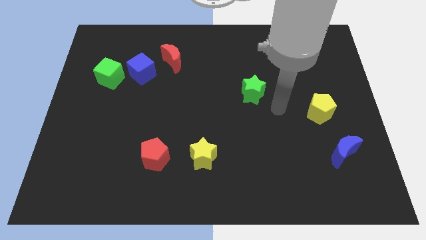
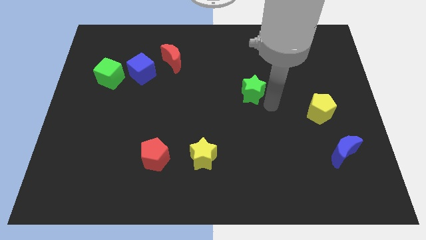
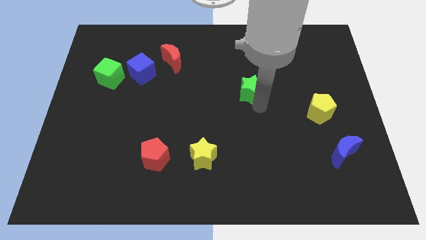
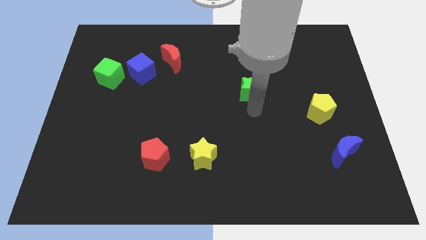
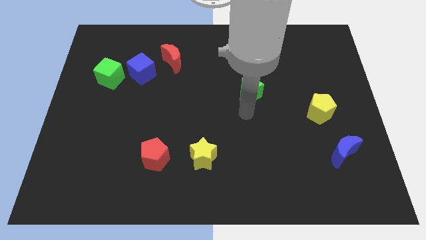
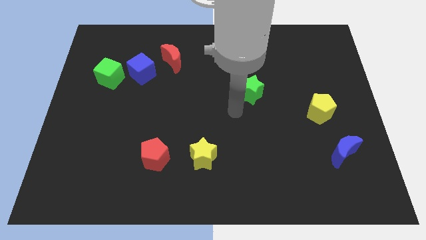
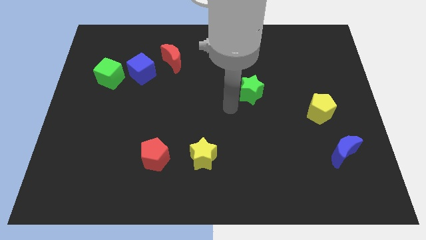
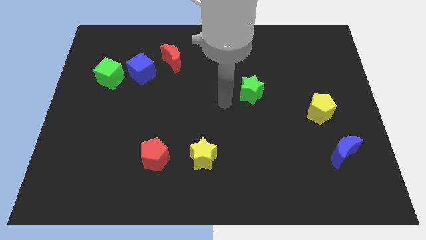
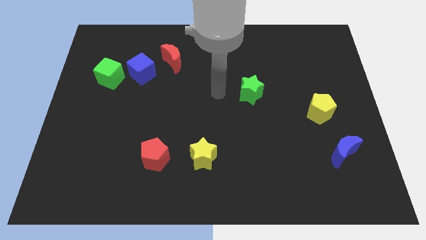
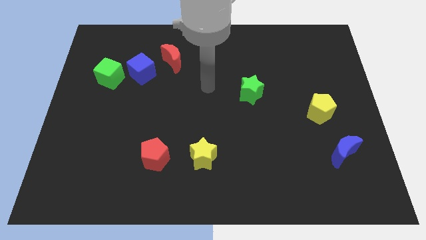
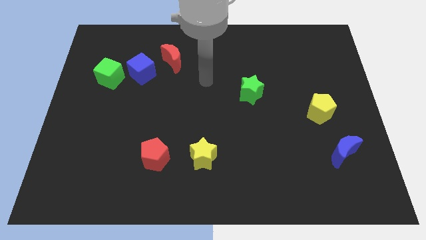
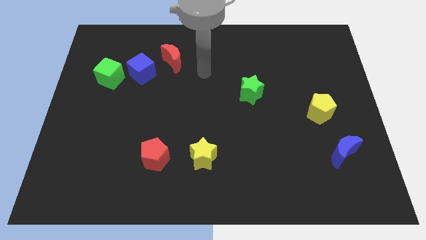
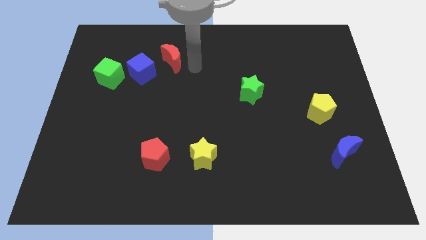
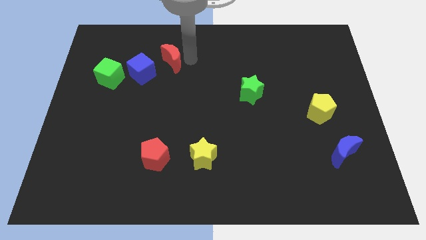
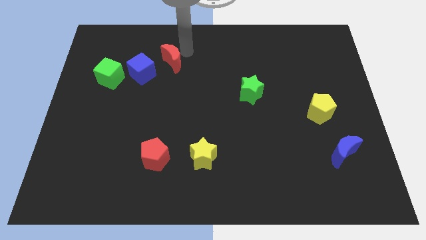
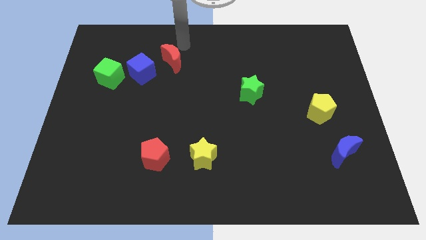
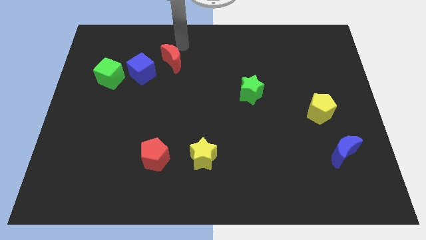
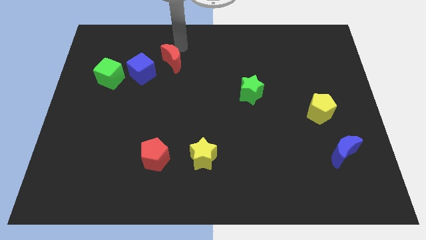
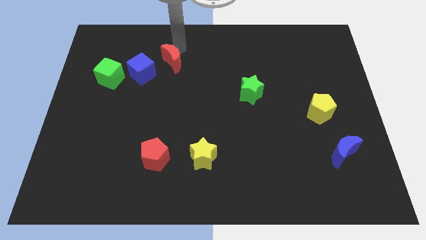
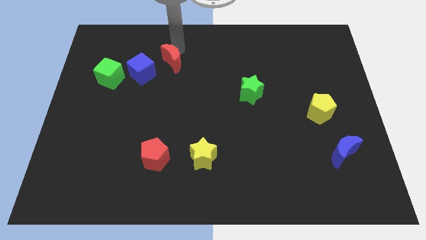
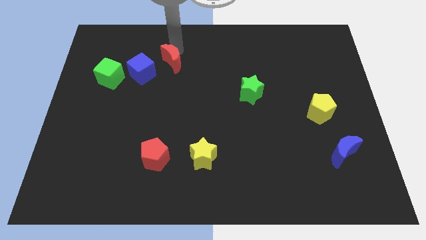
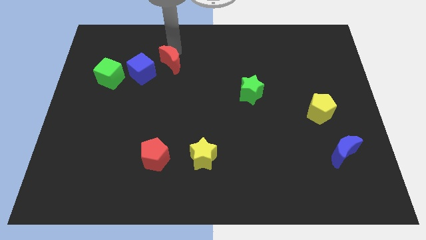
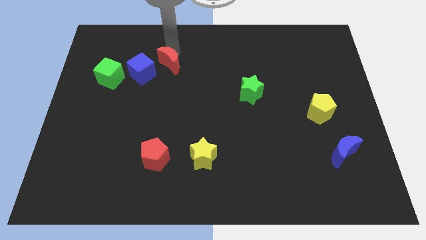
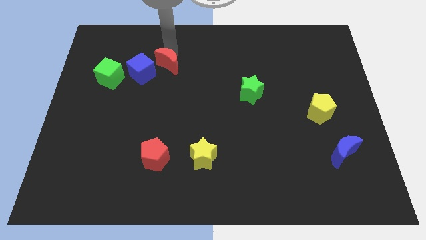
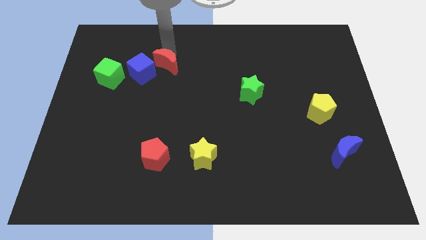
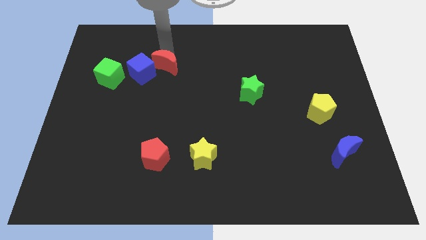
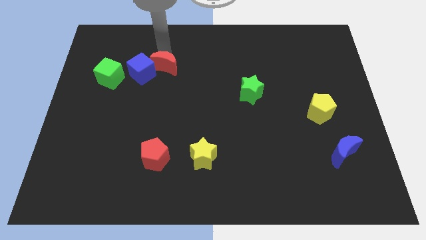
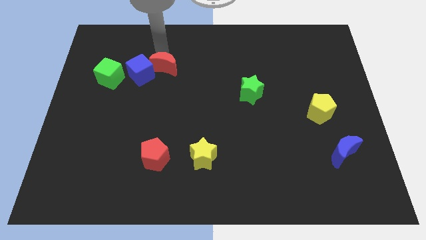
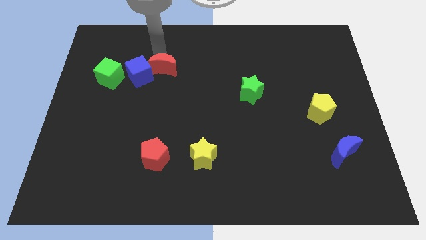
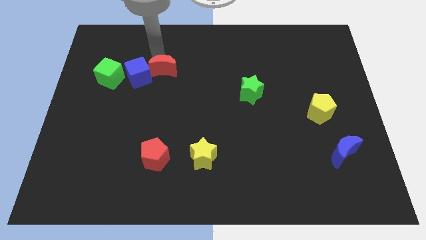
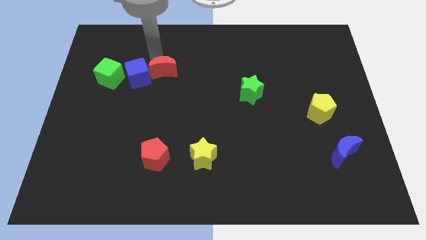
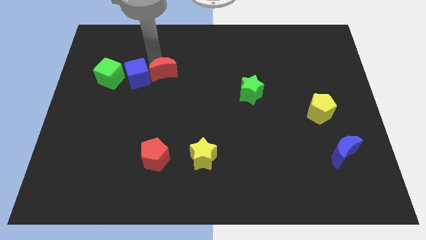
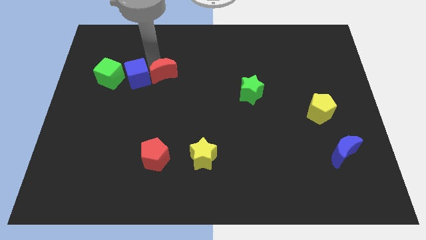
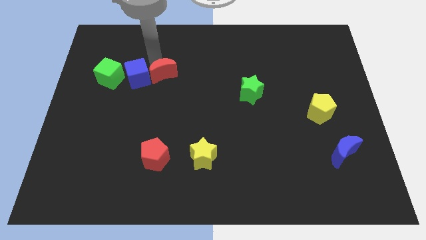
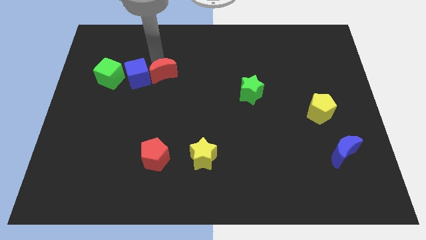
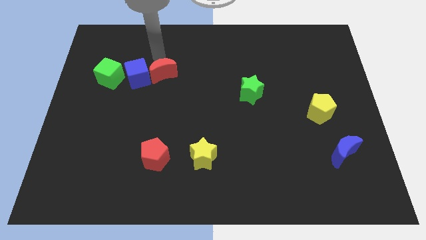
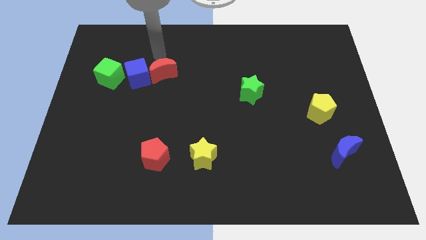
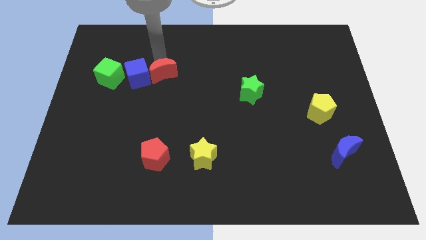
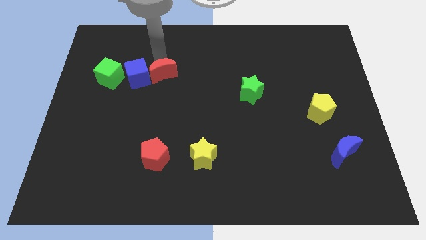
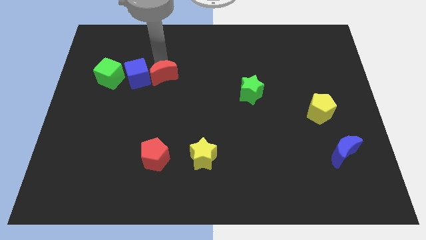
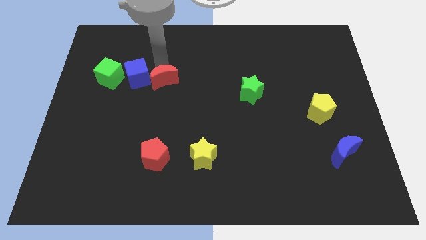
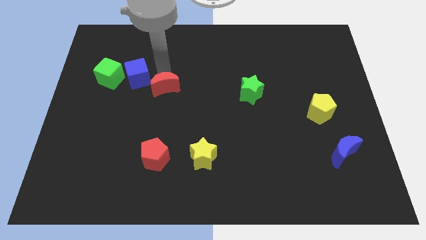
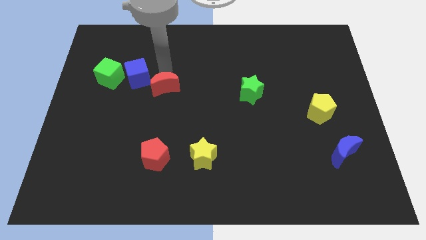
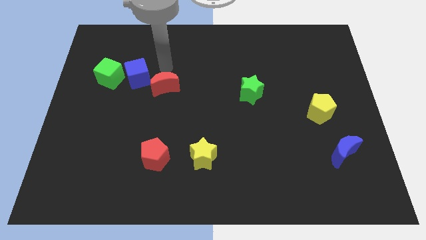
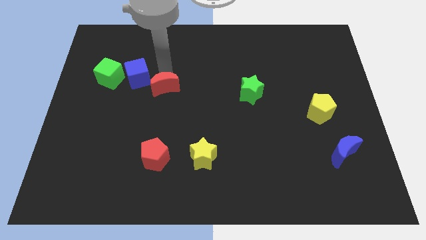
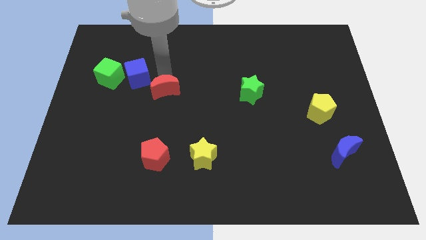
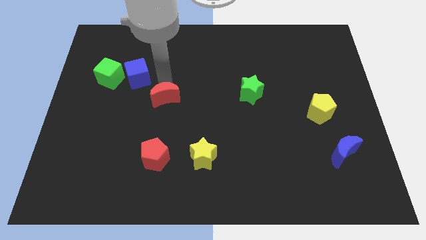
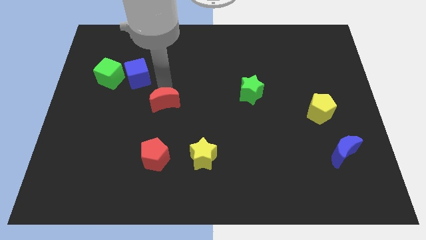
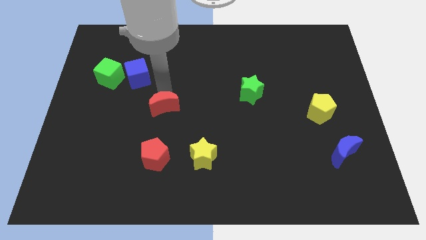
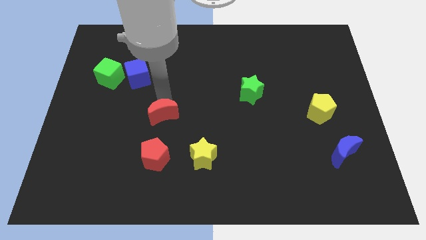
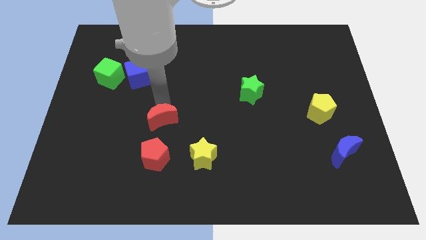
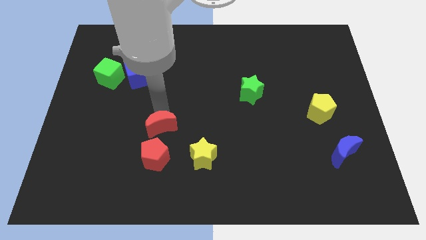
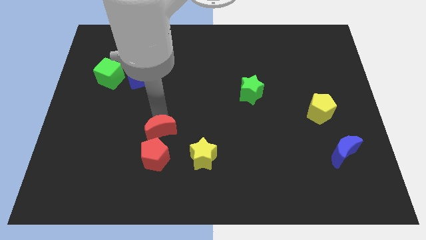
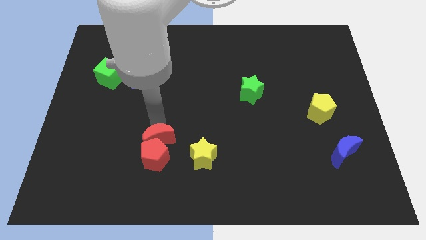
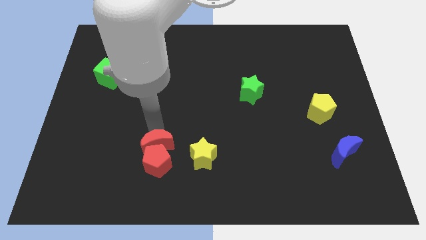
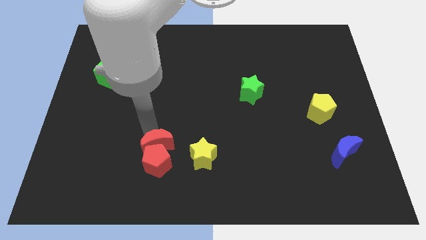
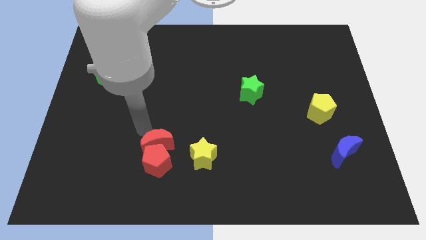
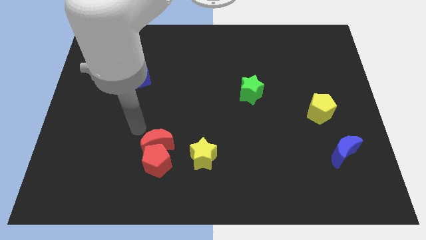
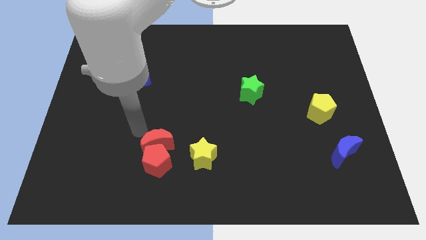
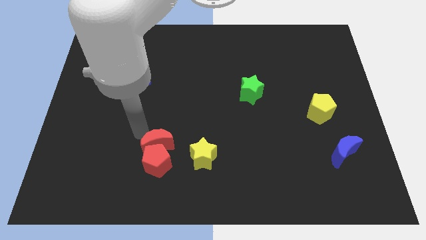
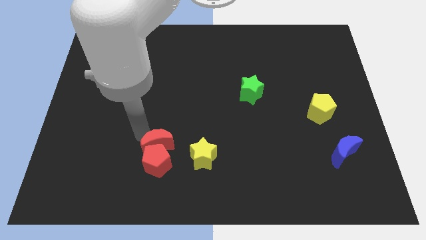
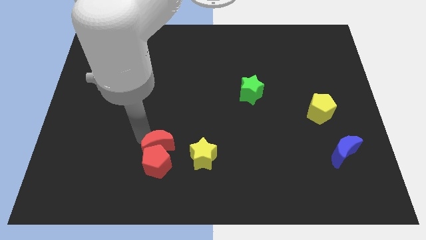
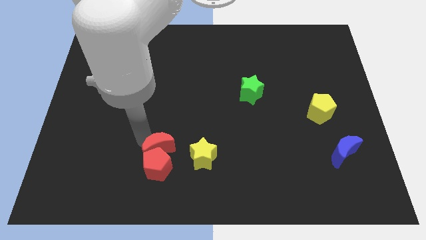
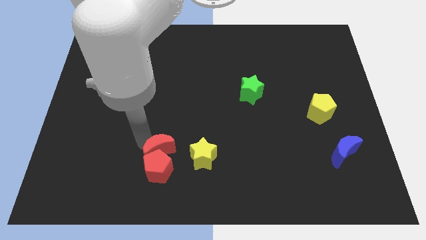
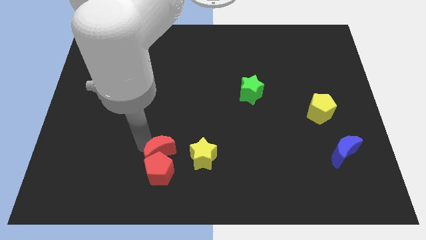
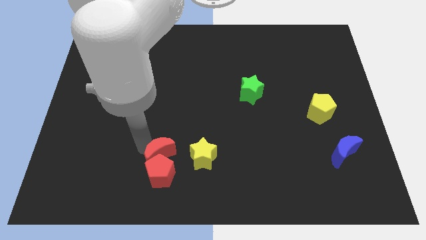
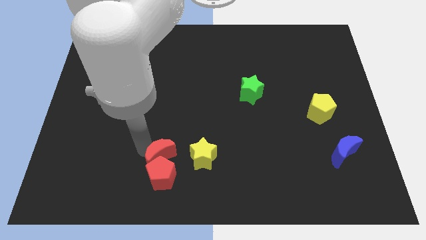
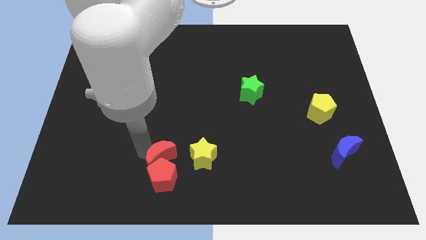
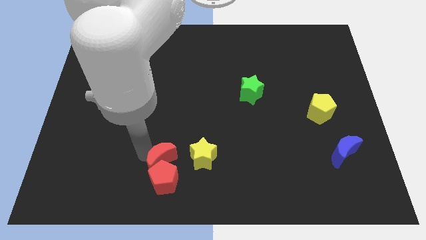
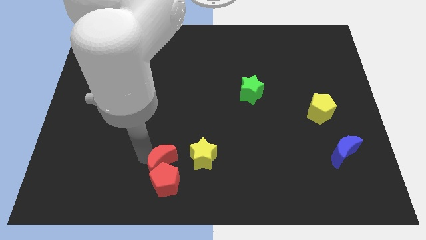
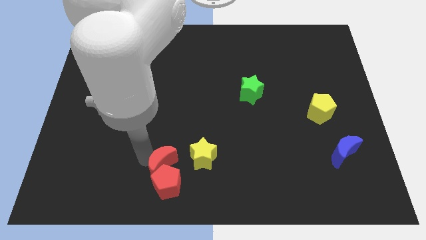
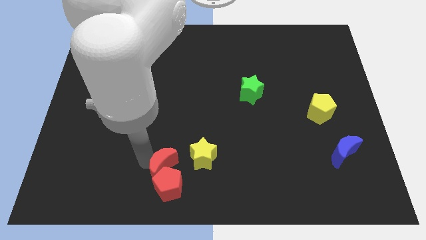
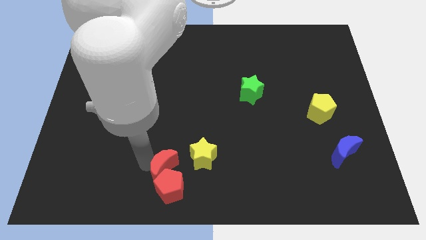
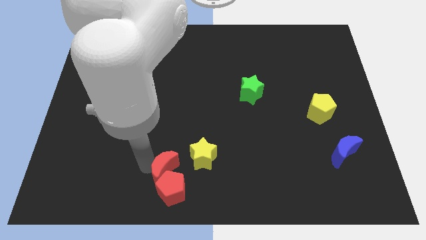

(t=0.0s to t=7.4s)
slide the red moon to the bottom
